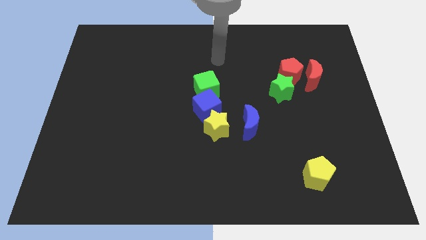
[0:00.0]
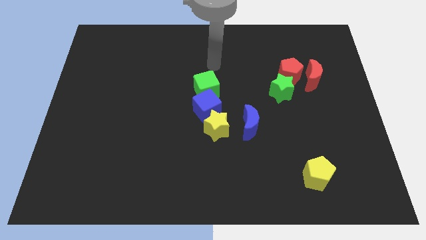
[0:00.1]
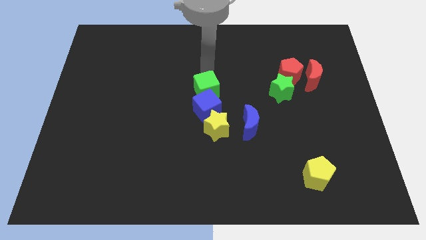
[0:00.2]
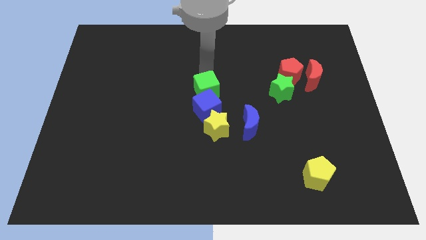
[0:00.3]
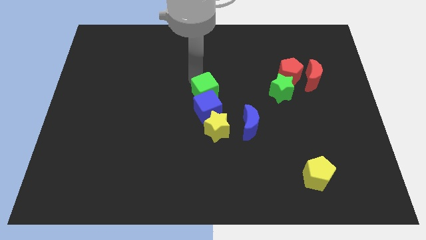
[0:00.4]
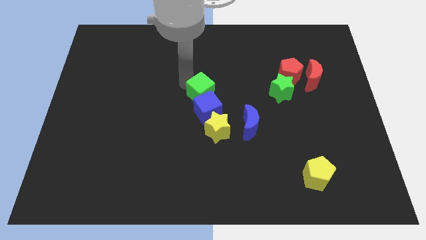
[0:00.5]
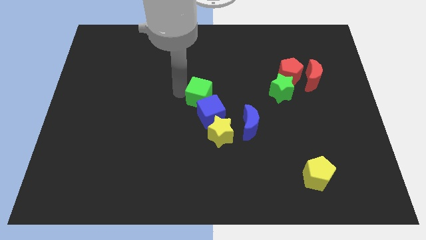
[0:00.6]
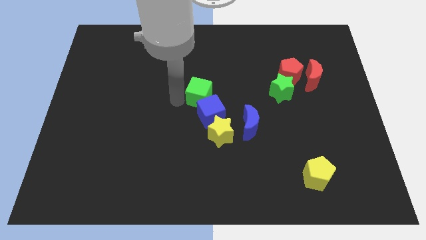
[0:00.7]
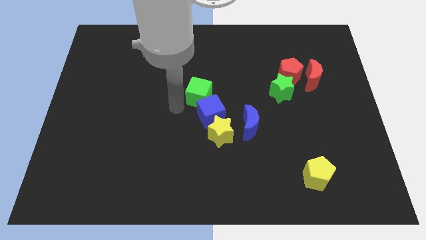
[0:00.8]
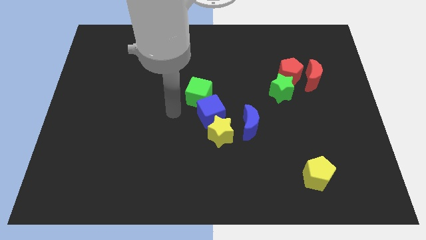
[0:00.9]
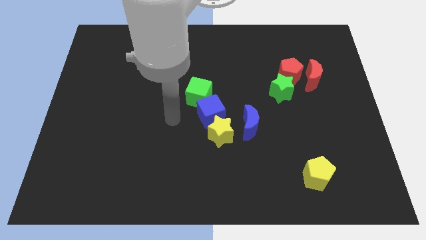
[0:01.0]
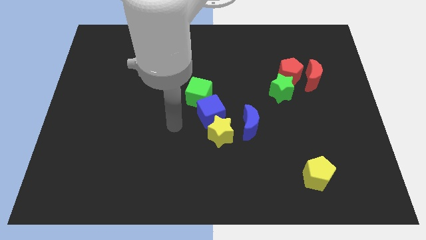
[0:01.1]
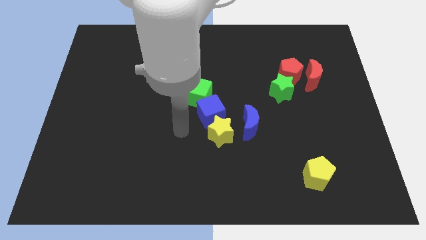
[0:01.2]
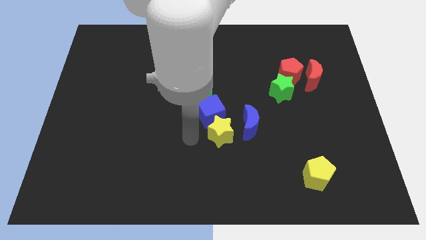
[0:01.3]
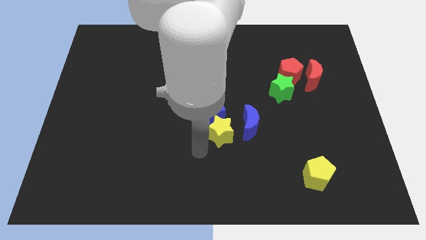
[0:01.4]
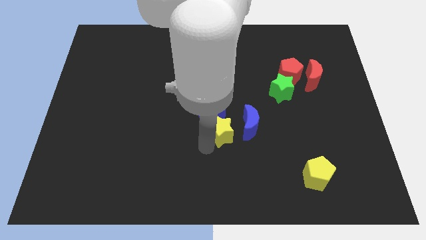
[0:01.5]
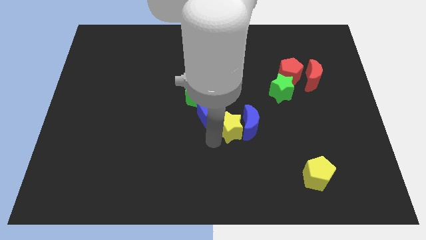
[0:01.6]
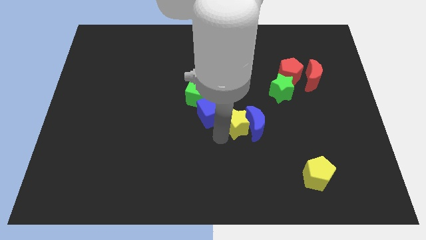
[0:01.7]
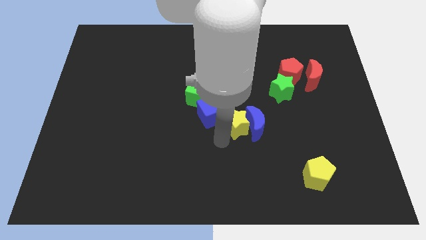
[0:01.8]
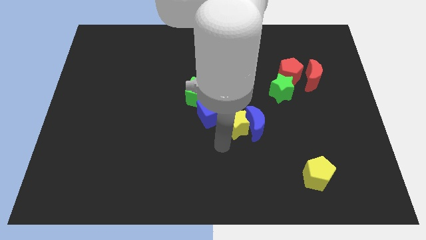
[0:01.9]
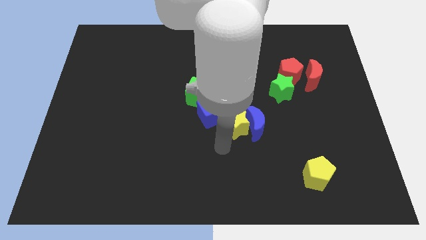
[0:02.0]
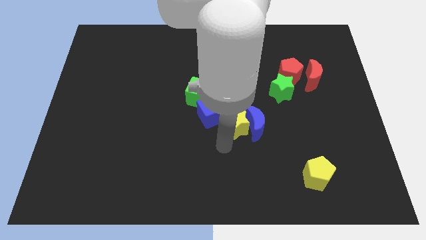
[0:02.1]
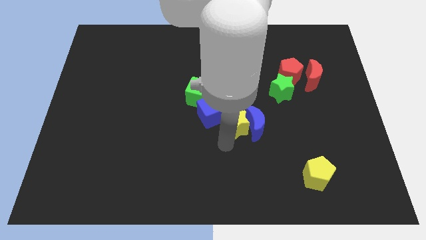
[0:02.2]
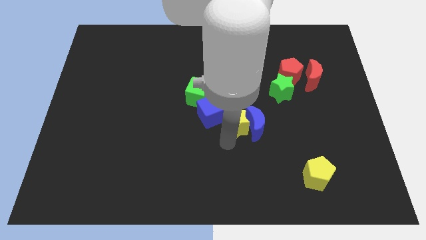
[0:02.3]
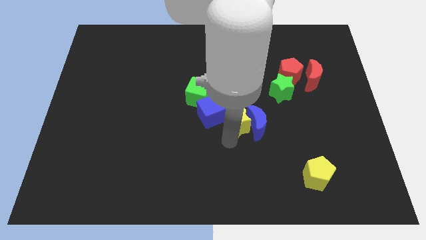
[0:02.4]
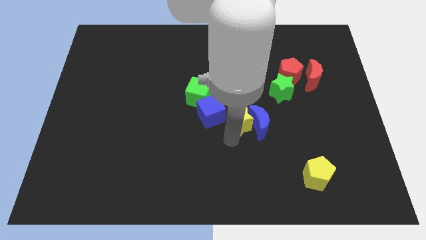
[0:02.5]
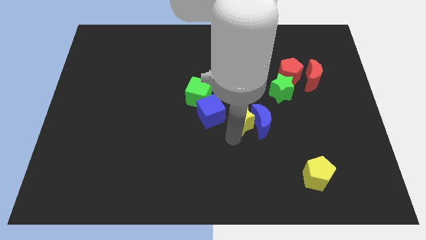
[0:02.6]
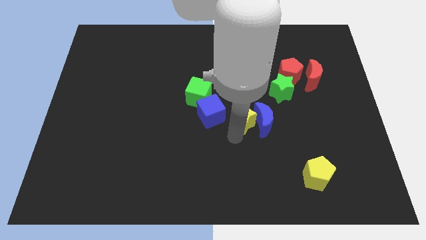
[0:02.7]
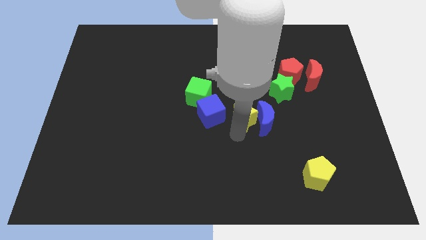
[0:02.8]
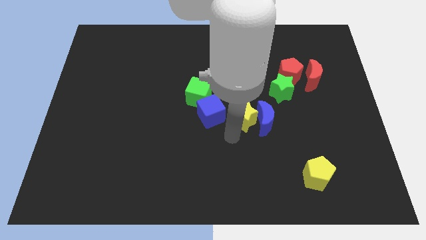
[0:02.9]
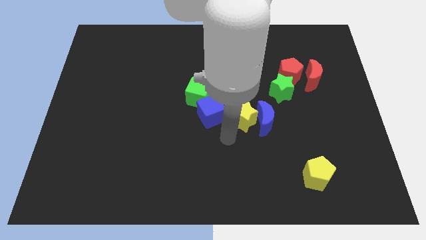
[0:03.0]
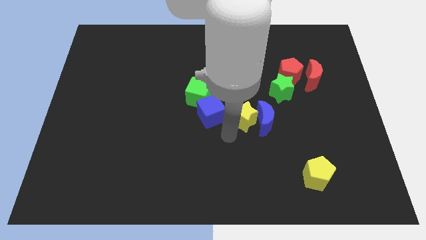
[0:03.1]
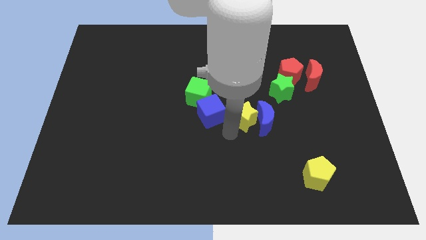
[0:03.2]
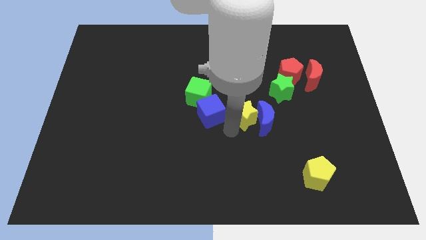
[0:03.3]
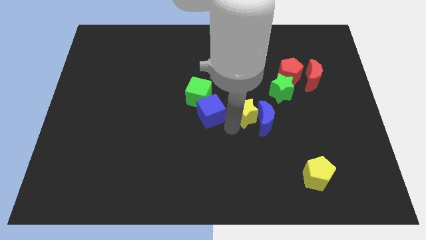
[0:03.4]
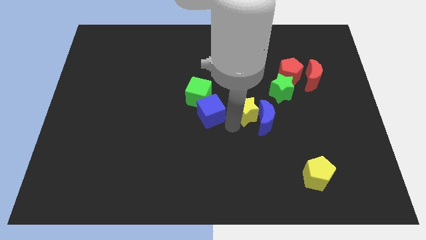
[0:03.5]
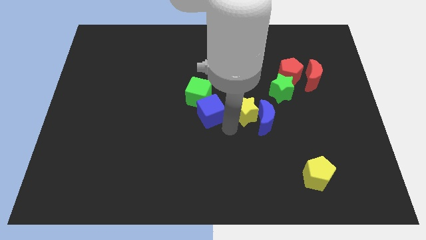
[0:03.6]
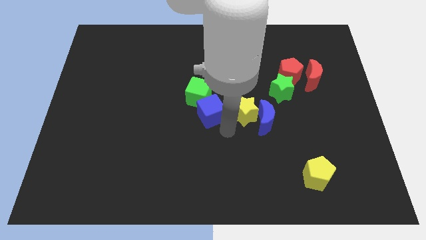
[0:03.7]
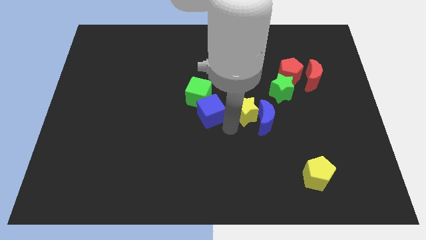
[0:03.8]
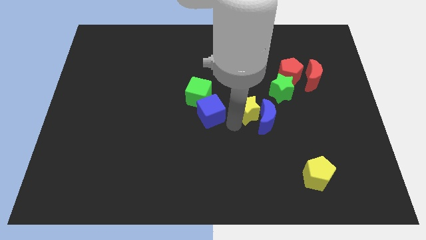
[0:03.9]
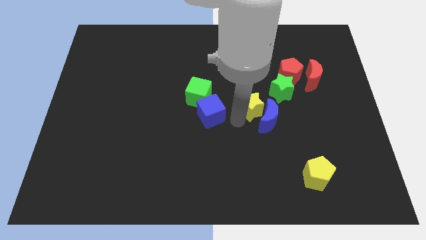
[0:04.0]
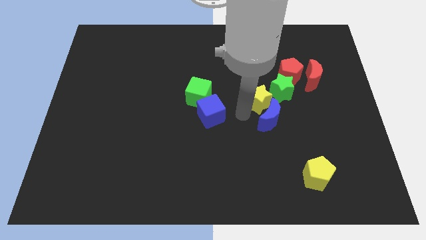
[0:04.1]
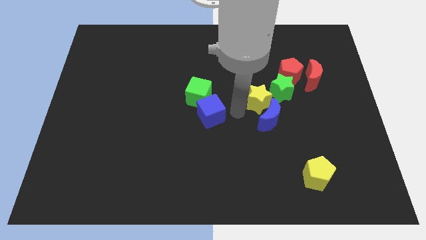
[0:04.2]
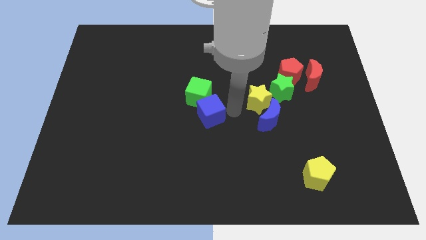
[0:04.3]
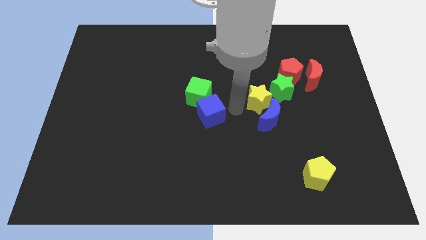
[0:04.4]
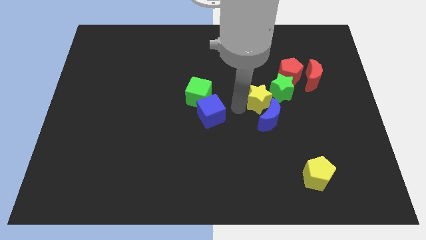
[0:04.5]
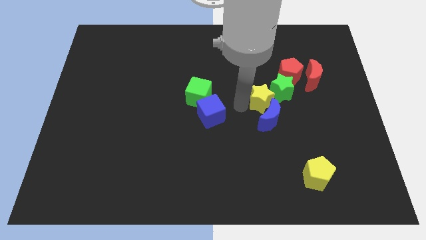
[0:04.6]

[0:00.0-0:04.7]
move the yellow star close to the green star

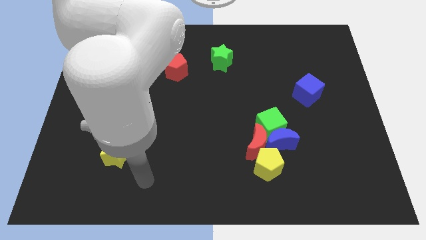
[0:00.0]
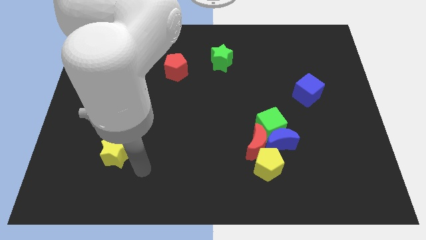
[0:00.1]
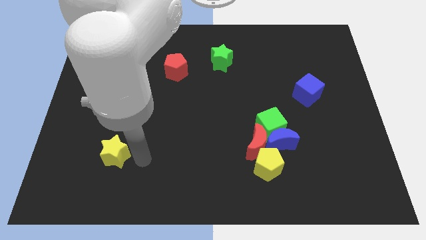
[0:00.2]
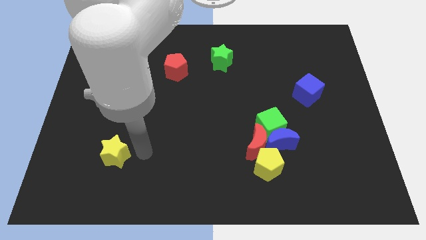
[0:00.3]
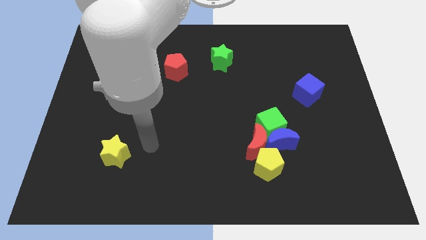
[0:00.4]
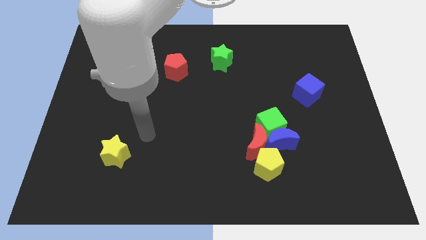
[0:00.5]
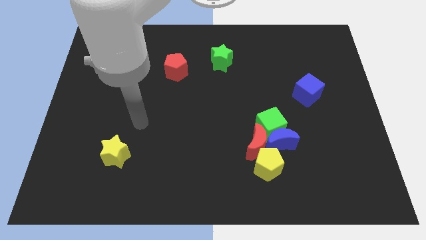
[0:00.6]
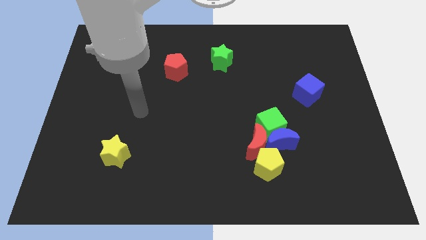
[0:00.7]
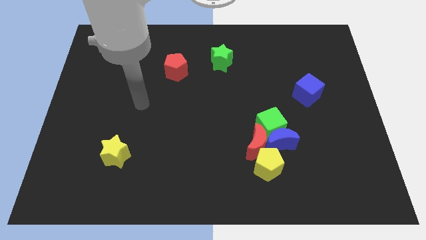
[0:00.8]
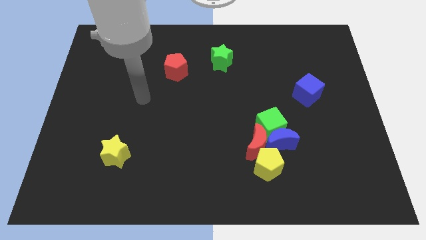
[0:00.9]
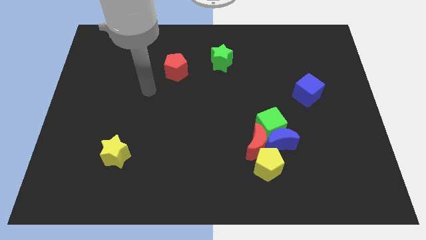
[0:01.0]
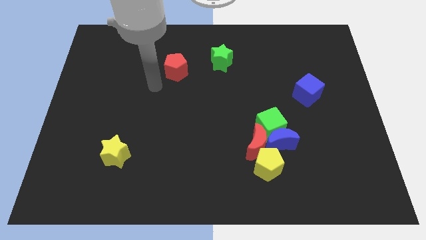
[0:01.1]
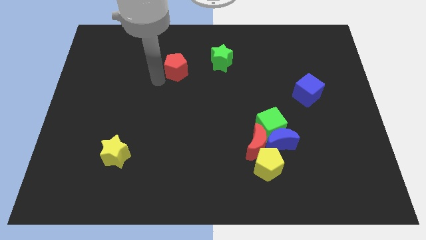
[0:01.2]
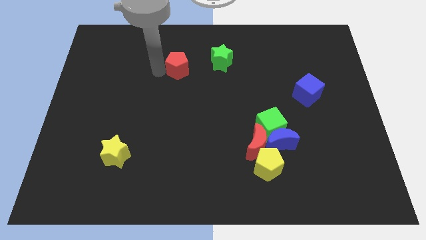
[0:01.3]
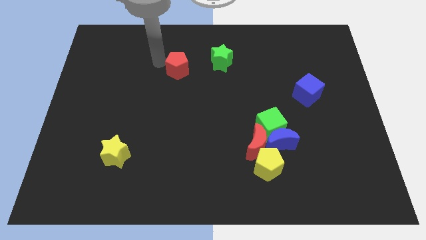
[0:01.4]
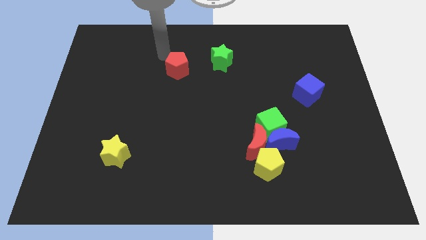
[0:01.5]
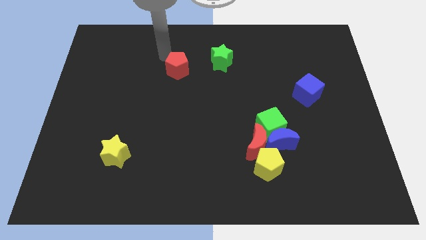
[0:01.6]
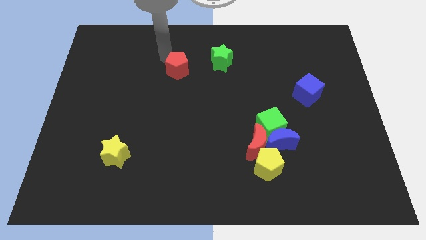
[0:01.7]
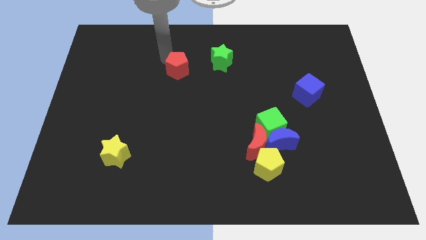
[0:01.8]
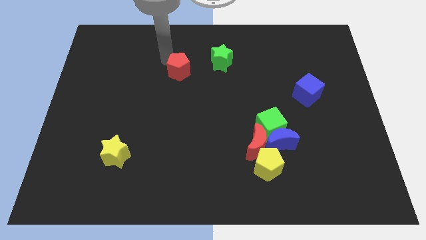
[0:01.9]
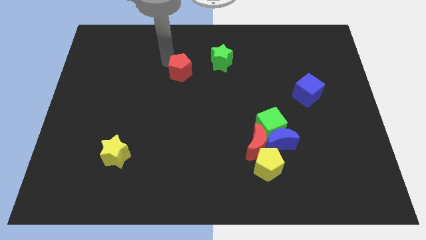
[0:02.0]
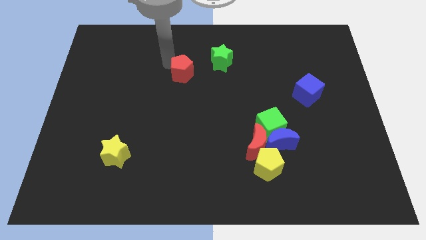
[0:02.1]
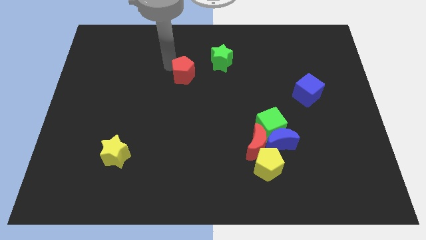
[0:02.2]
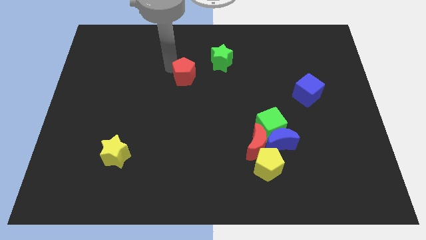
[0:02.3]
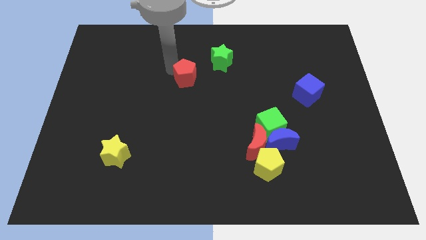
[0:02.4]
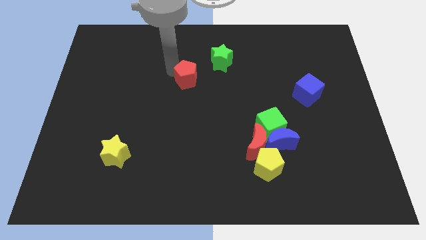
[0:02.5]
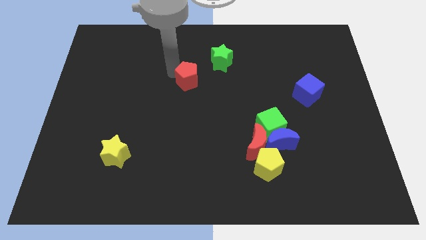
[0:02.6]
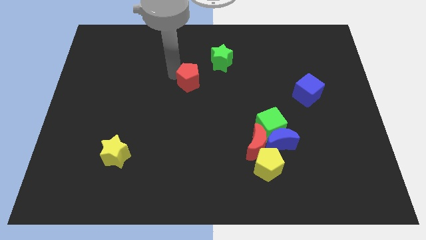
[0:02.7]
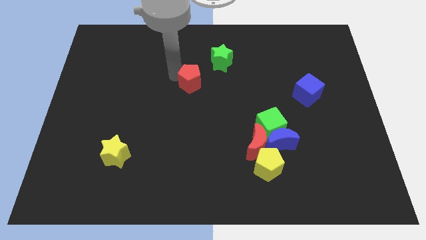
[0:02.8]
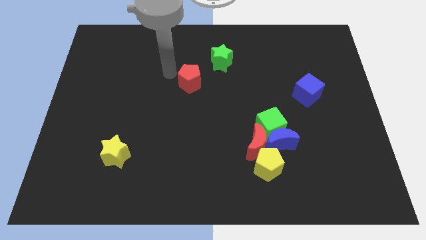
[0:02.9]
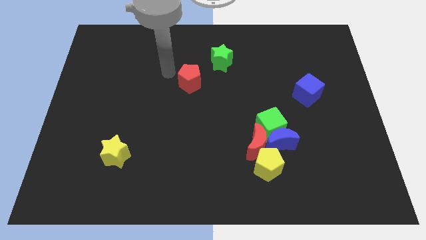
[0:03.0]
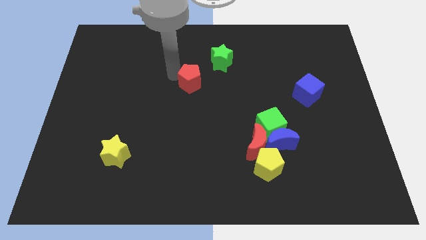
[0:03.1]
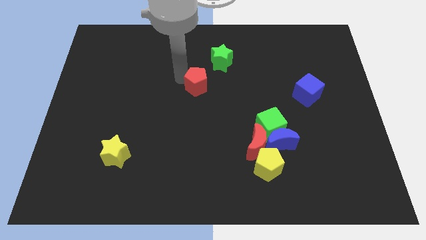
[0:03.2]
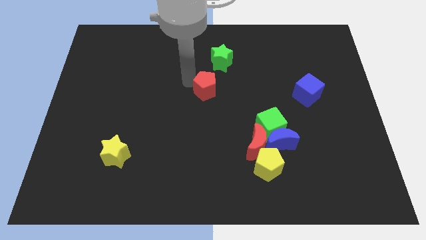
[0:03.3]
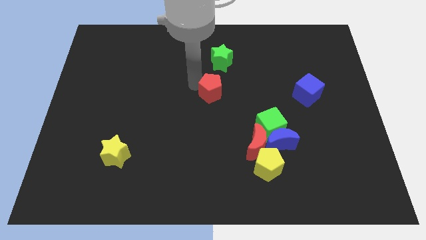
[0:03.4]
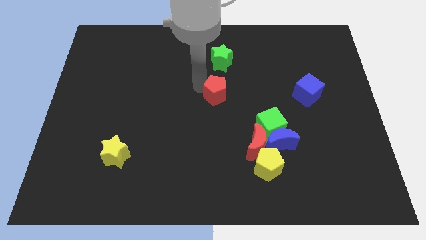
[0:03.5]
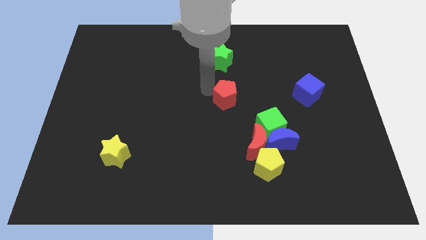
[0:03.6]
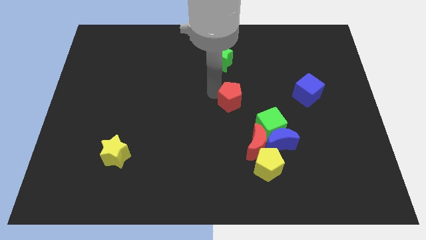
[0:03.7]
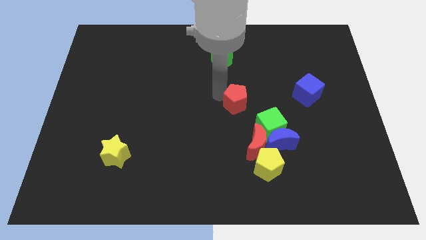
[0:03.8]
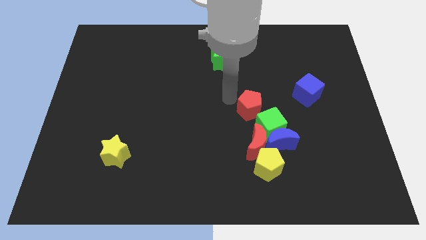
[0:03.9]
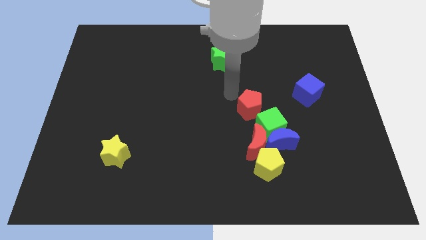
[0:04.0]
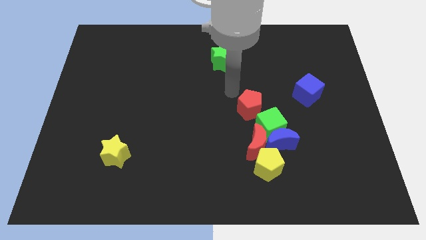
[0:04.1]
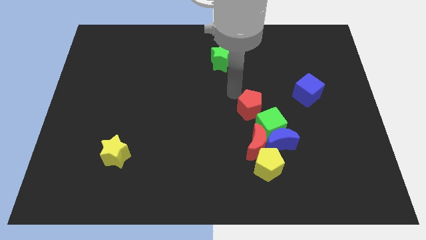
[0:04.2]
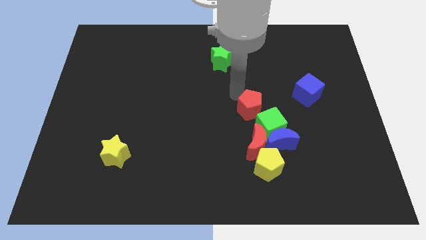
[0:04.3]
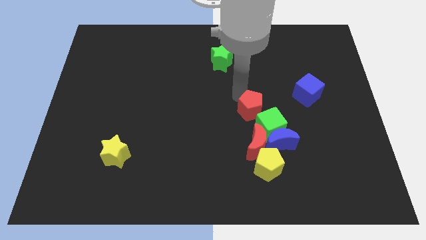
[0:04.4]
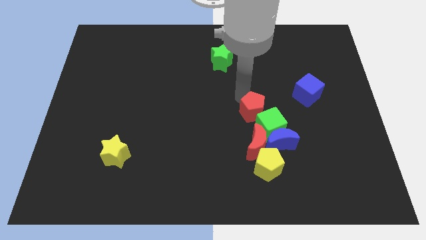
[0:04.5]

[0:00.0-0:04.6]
push the red pentagon next to the green cube
